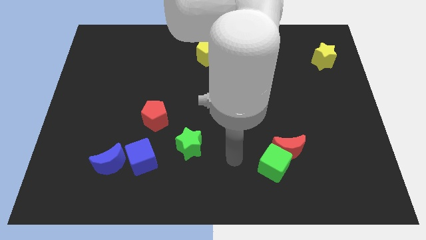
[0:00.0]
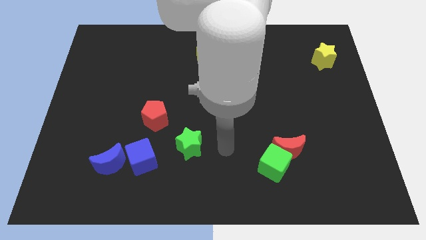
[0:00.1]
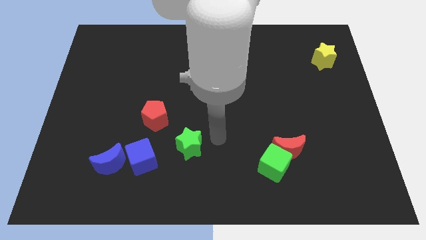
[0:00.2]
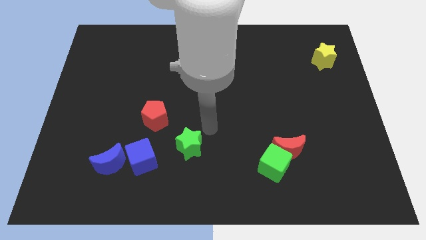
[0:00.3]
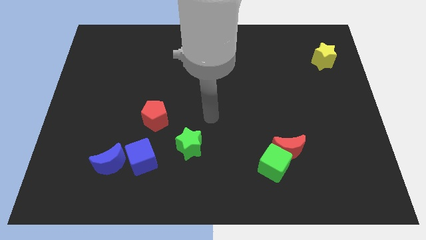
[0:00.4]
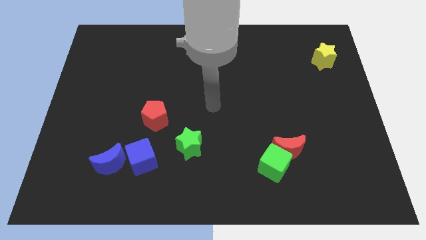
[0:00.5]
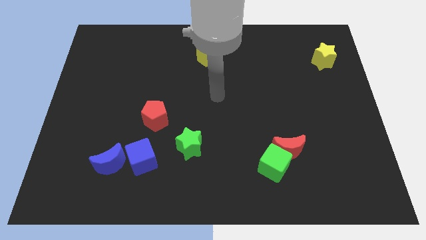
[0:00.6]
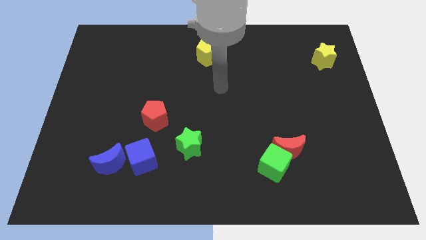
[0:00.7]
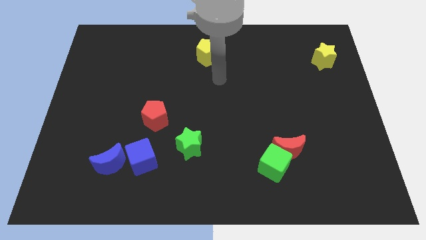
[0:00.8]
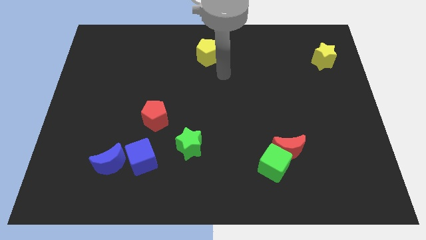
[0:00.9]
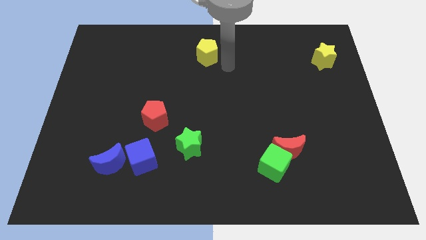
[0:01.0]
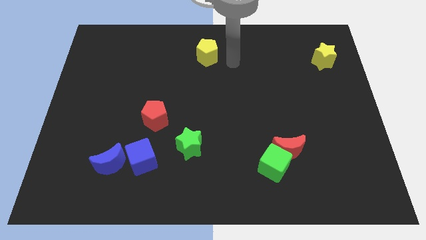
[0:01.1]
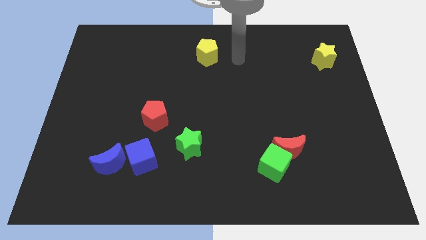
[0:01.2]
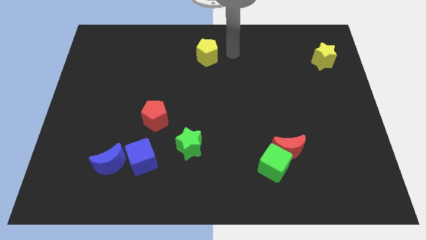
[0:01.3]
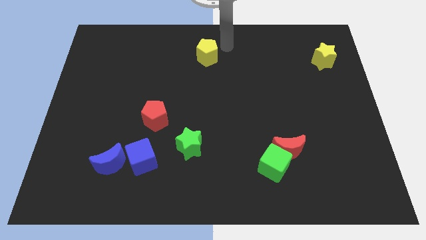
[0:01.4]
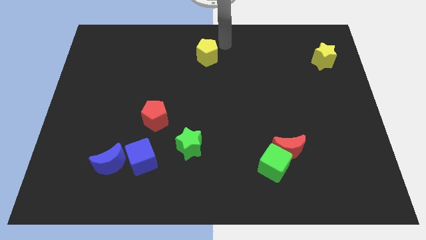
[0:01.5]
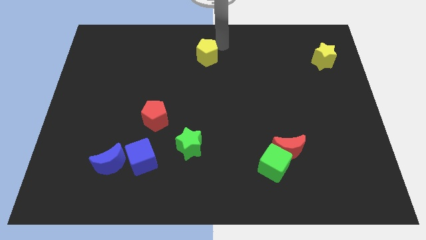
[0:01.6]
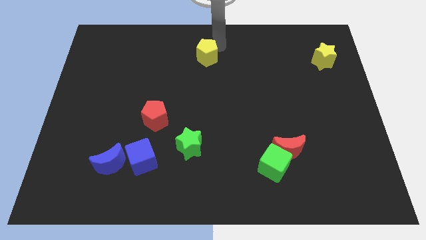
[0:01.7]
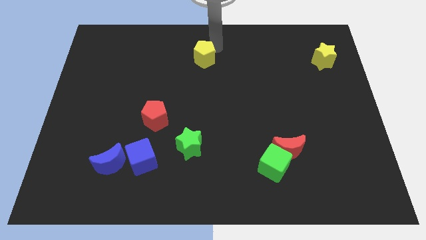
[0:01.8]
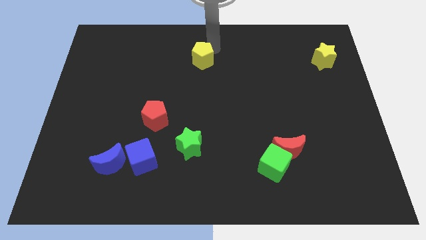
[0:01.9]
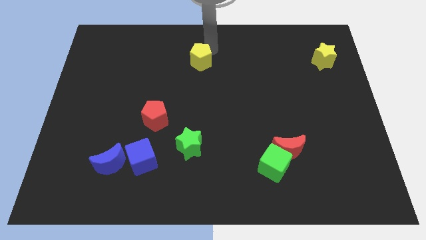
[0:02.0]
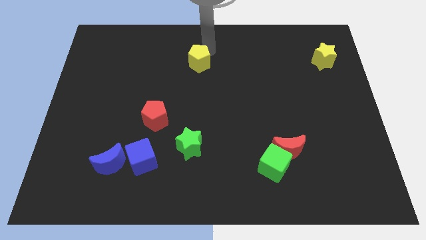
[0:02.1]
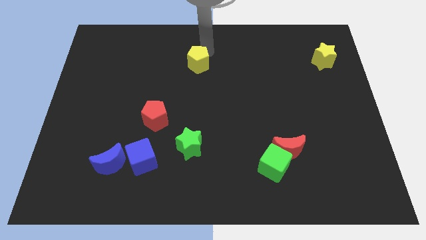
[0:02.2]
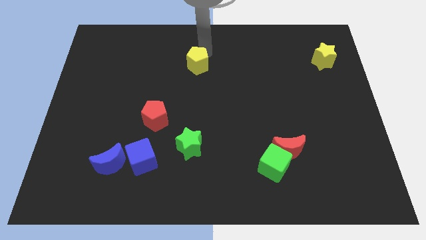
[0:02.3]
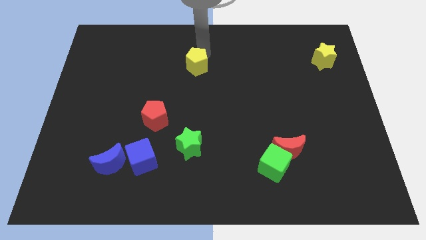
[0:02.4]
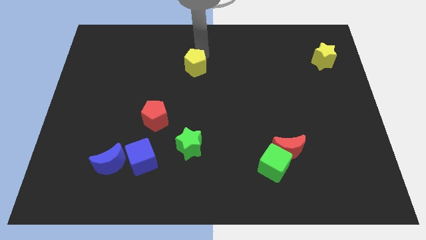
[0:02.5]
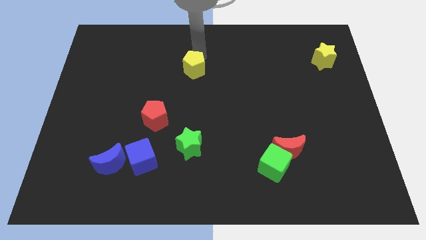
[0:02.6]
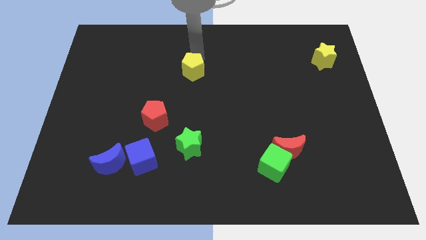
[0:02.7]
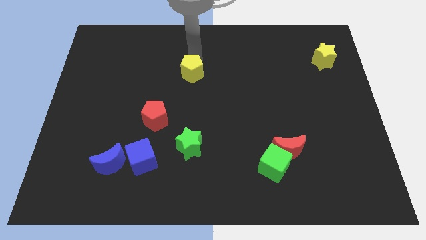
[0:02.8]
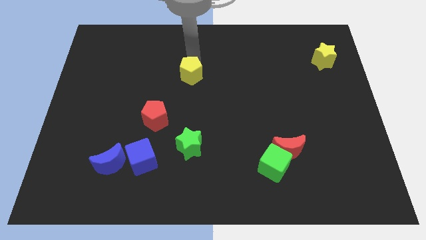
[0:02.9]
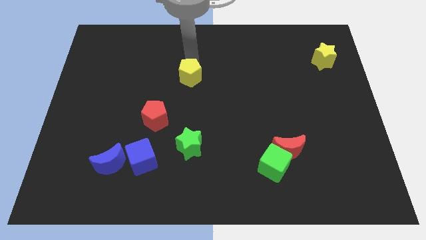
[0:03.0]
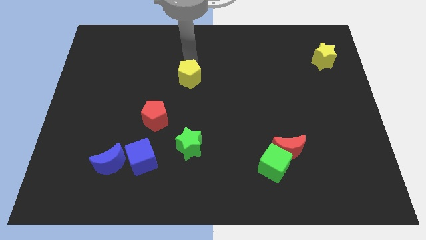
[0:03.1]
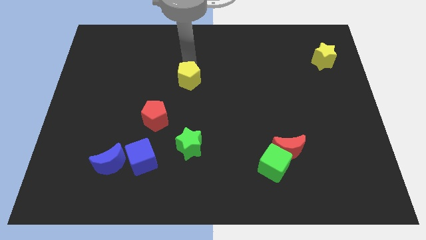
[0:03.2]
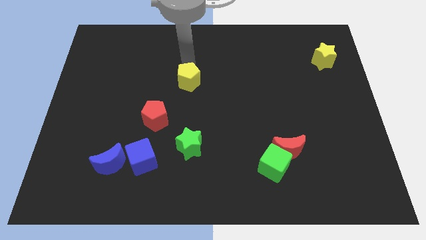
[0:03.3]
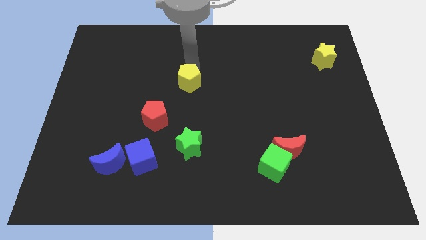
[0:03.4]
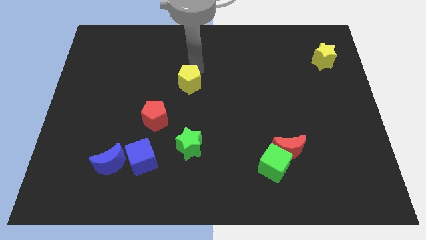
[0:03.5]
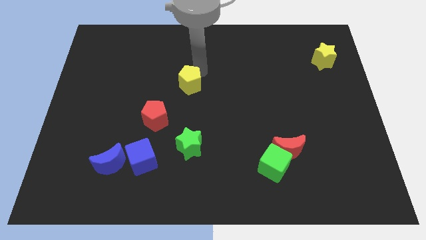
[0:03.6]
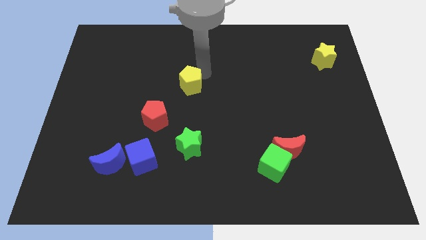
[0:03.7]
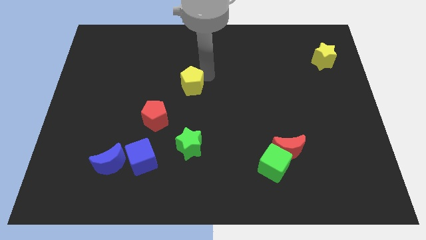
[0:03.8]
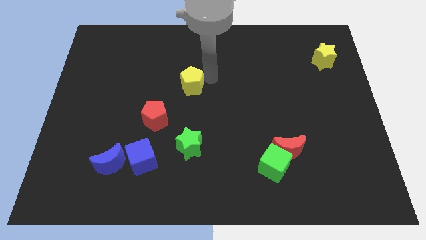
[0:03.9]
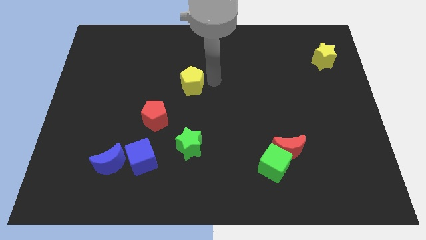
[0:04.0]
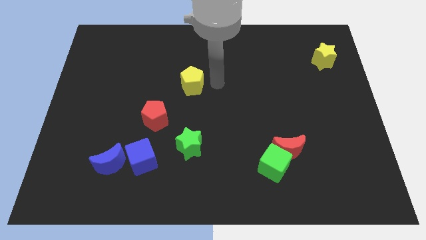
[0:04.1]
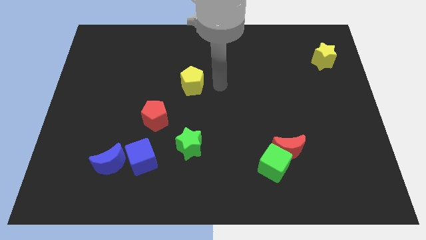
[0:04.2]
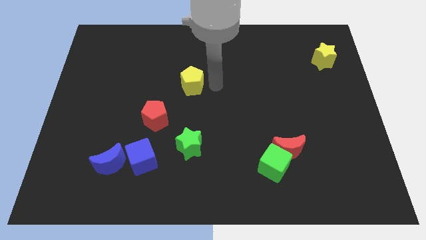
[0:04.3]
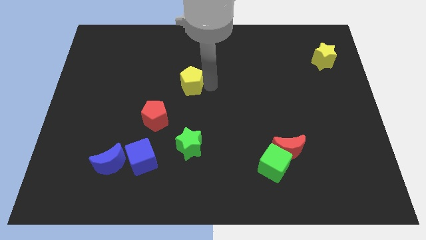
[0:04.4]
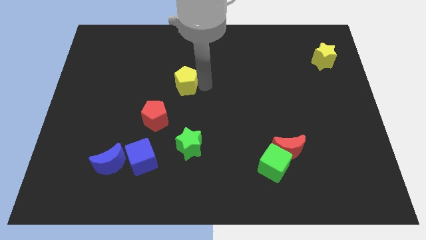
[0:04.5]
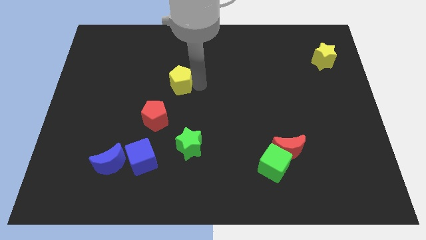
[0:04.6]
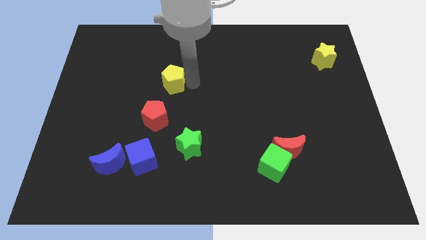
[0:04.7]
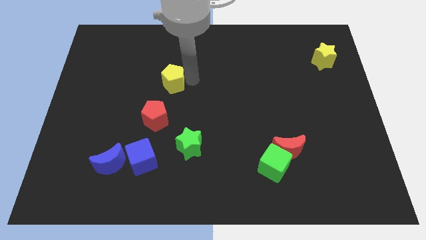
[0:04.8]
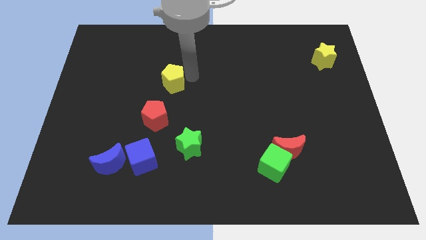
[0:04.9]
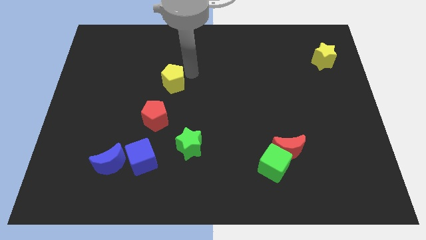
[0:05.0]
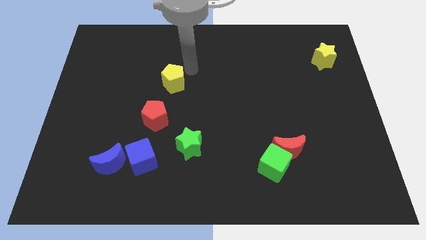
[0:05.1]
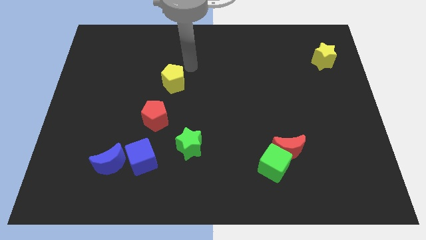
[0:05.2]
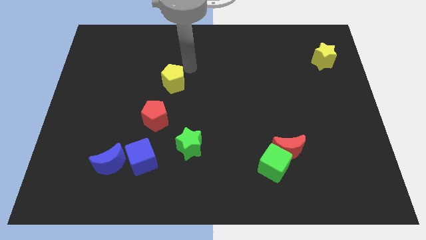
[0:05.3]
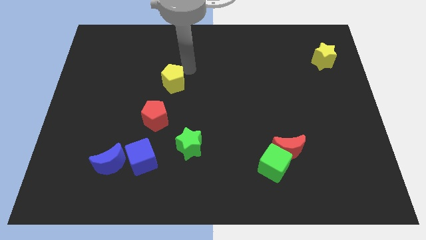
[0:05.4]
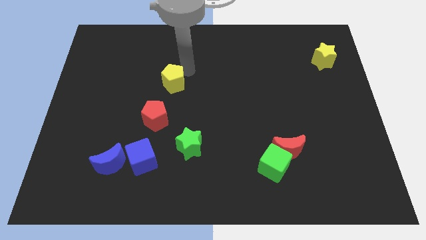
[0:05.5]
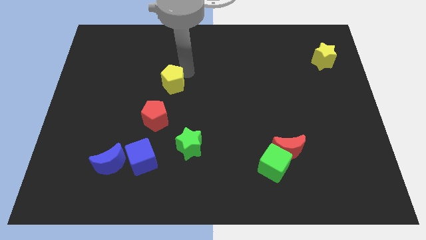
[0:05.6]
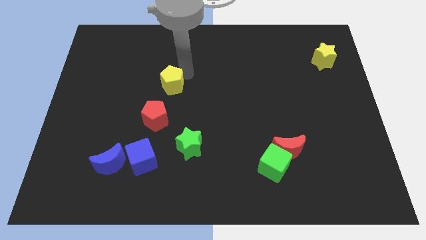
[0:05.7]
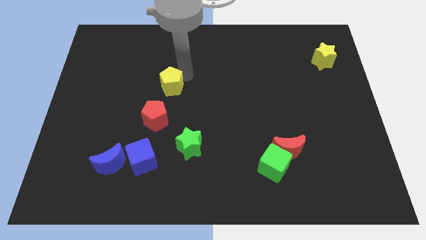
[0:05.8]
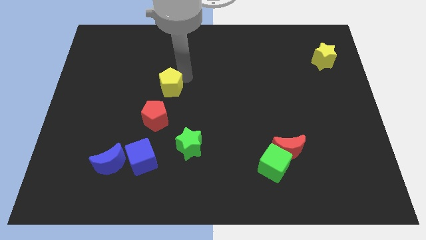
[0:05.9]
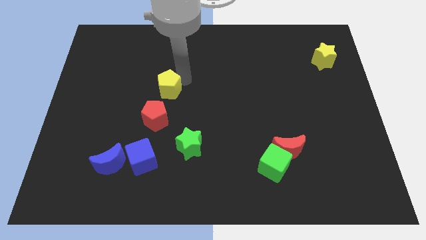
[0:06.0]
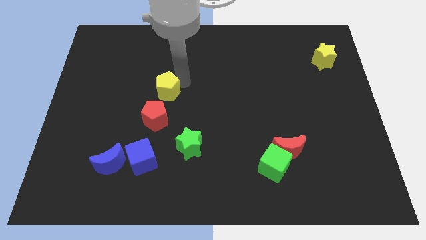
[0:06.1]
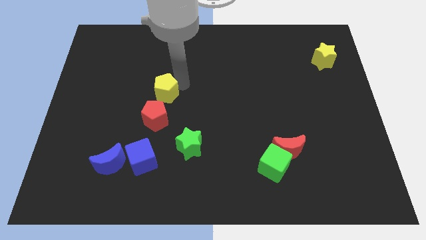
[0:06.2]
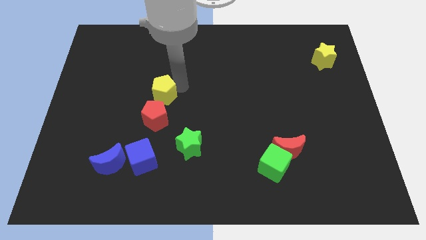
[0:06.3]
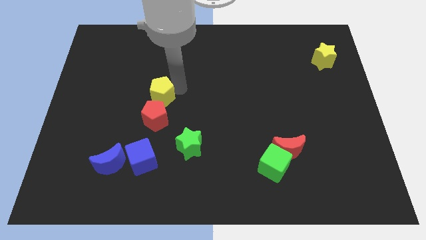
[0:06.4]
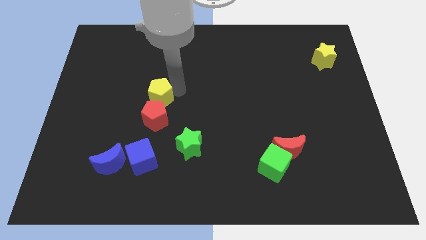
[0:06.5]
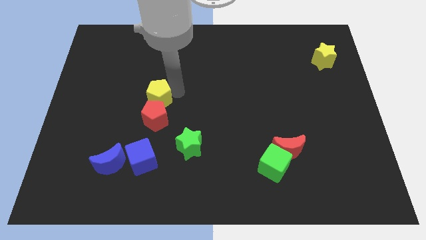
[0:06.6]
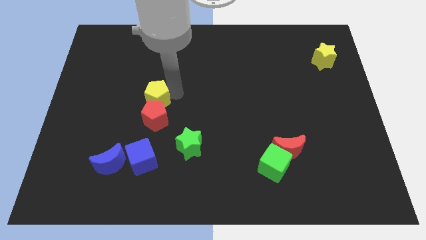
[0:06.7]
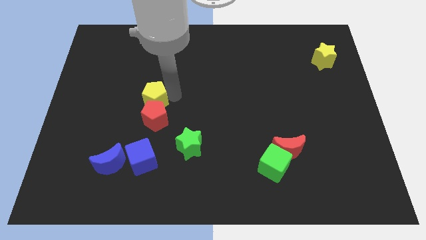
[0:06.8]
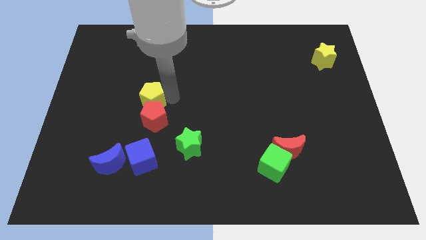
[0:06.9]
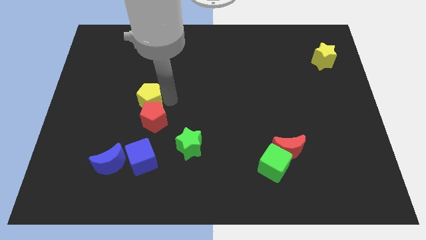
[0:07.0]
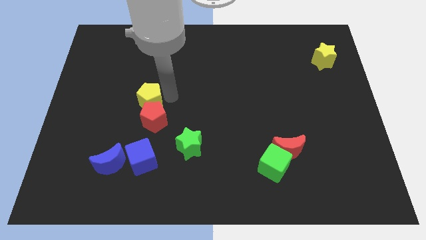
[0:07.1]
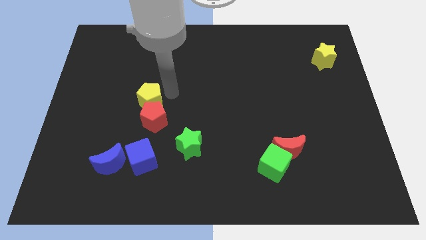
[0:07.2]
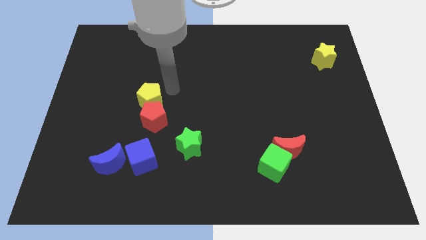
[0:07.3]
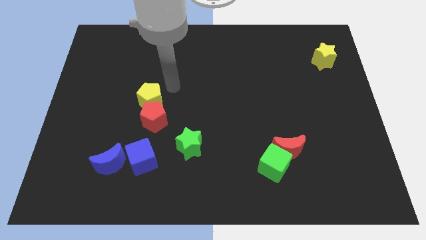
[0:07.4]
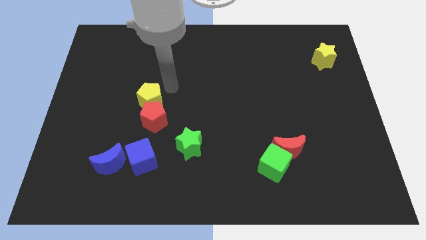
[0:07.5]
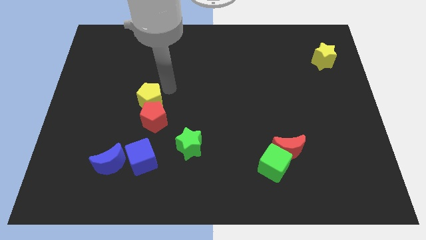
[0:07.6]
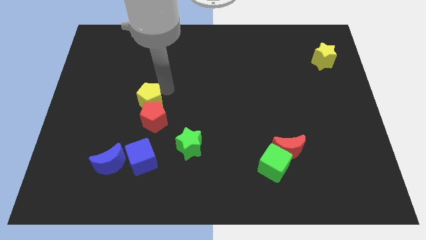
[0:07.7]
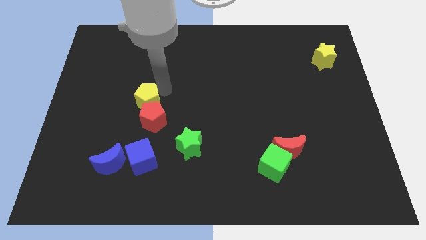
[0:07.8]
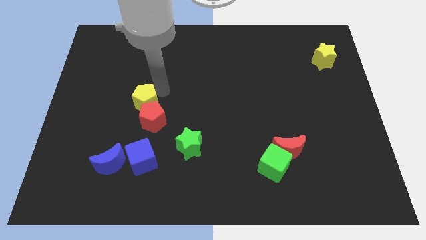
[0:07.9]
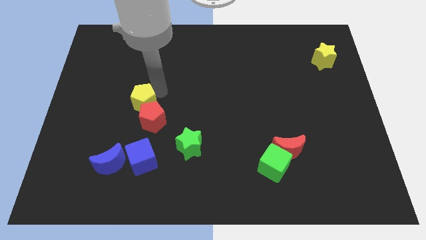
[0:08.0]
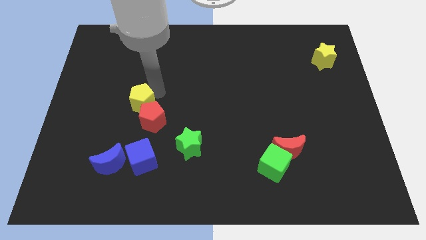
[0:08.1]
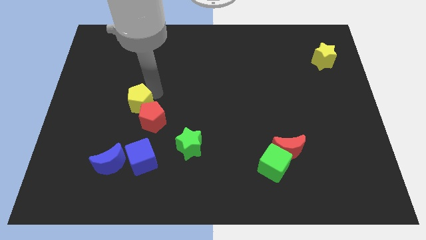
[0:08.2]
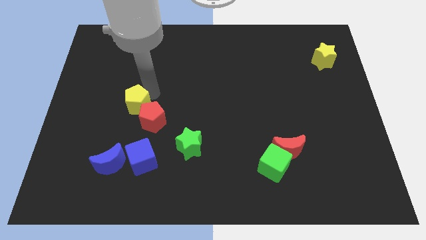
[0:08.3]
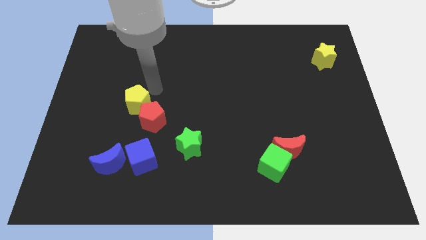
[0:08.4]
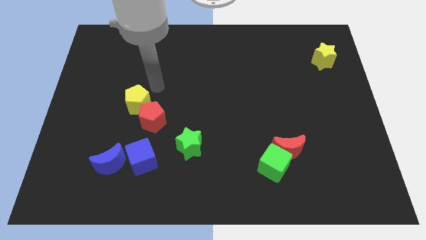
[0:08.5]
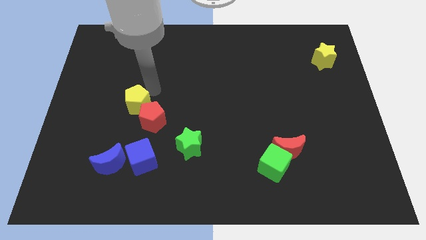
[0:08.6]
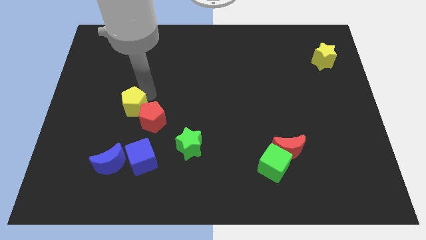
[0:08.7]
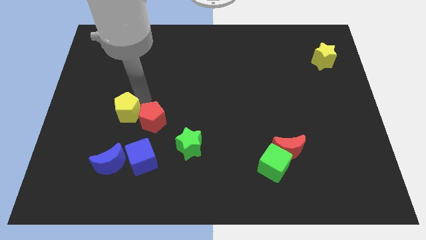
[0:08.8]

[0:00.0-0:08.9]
push the yellow pentagon to the top of the blue moon
